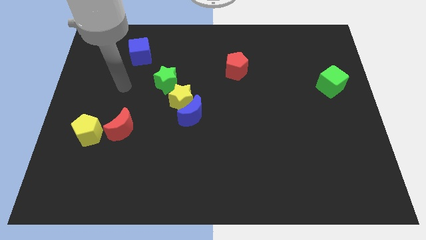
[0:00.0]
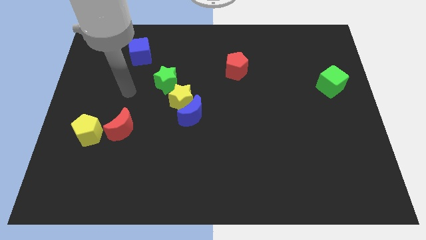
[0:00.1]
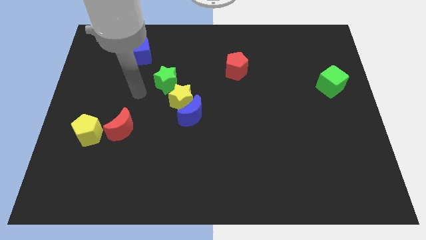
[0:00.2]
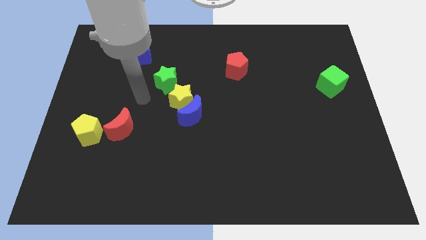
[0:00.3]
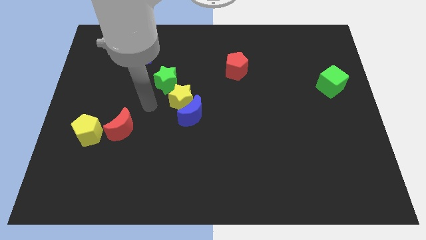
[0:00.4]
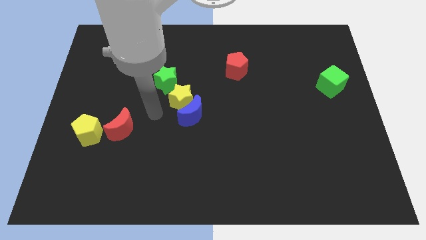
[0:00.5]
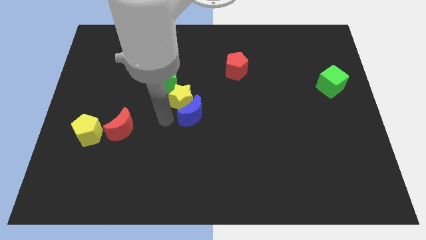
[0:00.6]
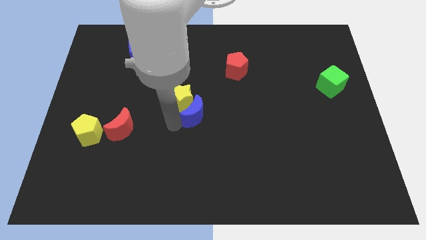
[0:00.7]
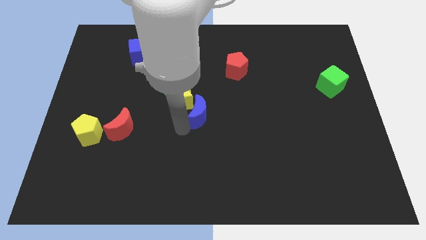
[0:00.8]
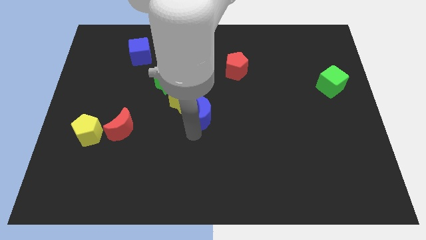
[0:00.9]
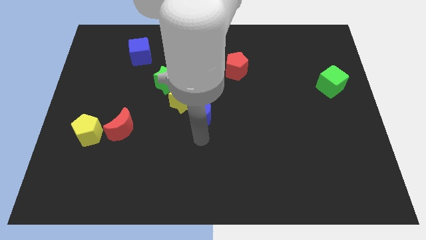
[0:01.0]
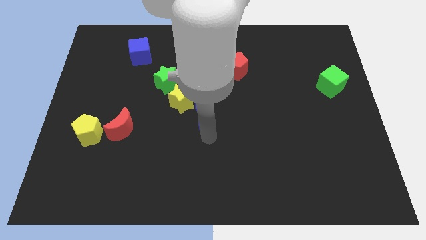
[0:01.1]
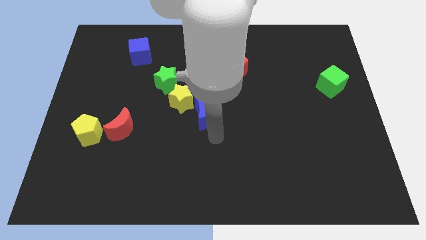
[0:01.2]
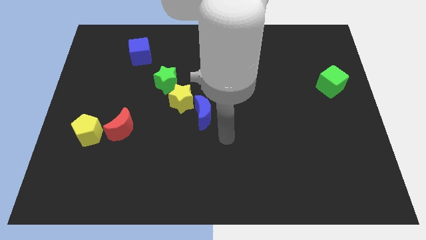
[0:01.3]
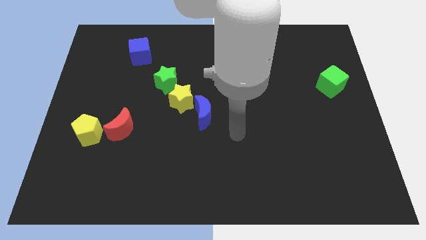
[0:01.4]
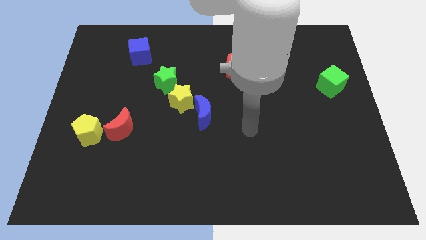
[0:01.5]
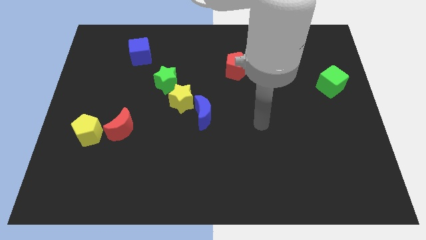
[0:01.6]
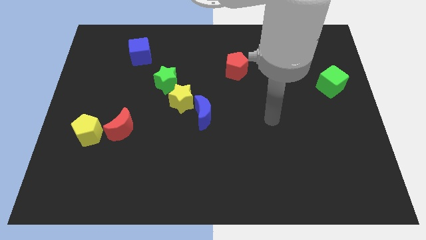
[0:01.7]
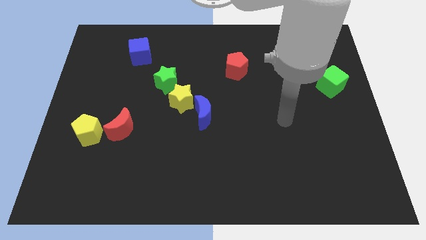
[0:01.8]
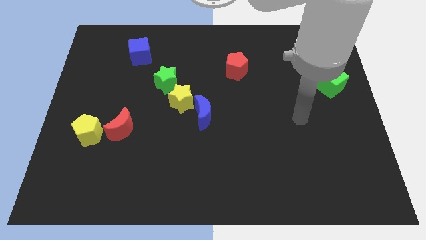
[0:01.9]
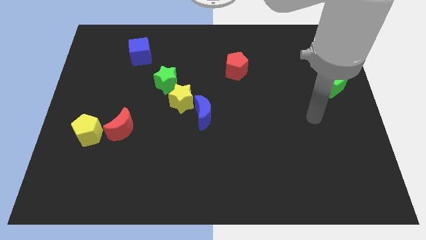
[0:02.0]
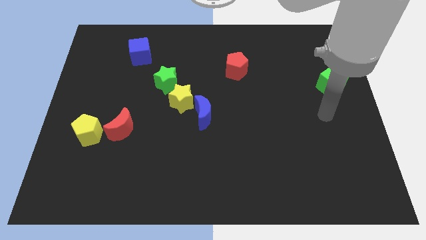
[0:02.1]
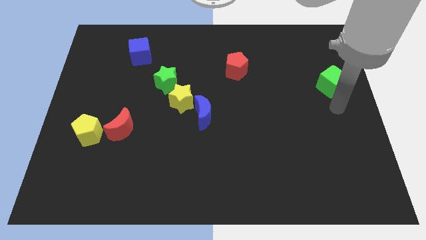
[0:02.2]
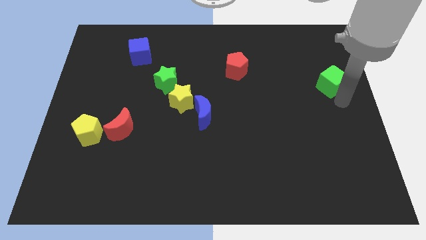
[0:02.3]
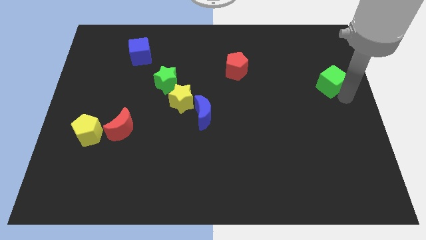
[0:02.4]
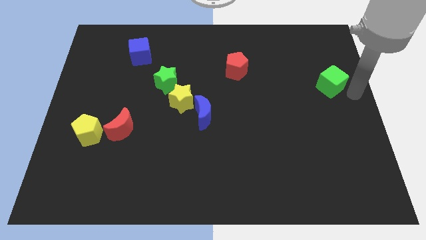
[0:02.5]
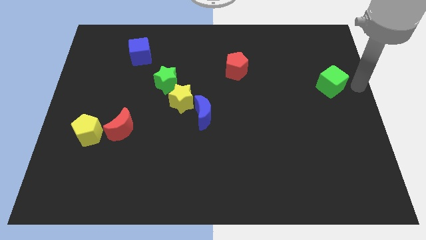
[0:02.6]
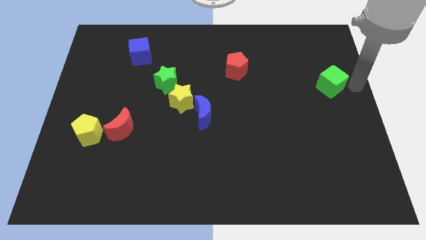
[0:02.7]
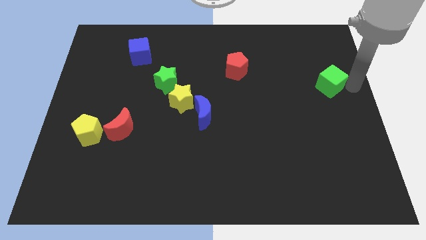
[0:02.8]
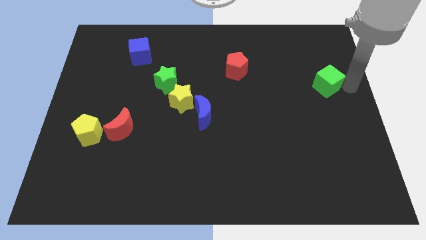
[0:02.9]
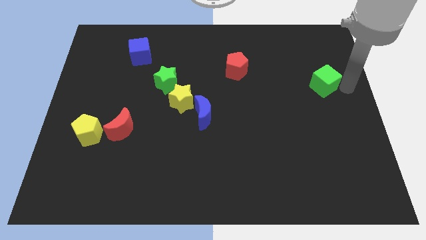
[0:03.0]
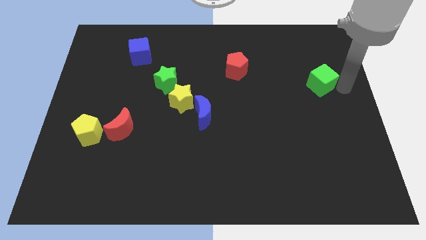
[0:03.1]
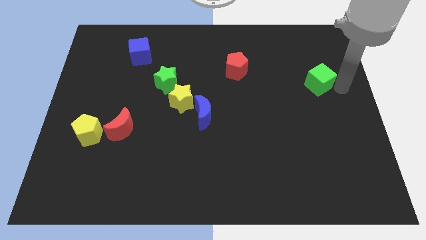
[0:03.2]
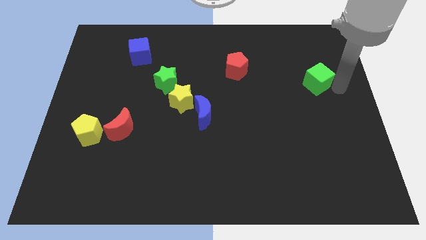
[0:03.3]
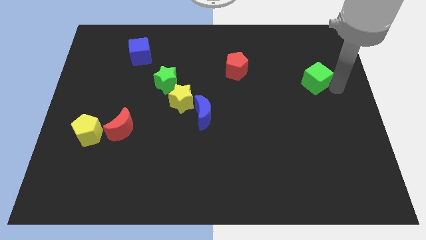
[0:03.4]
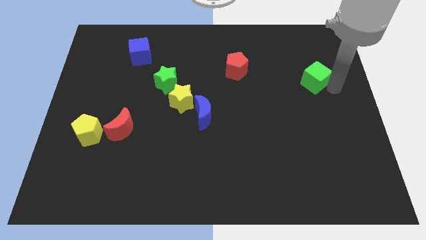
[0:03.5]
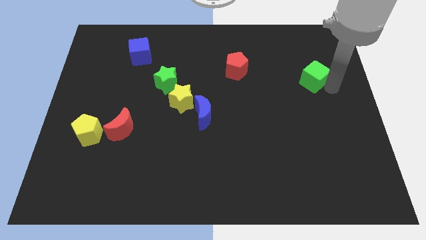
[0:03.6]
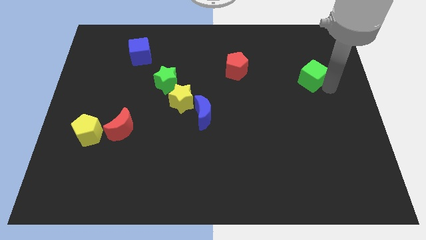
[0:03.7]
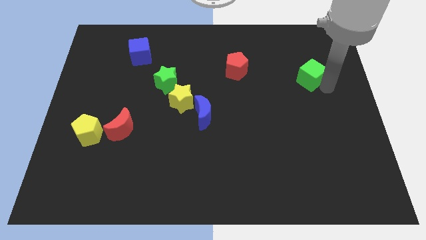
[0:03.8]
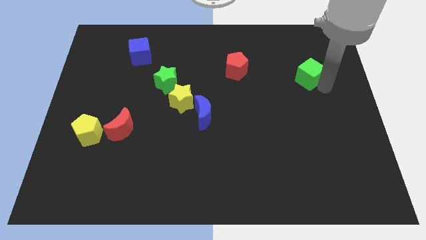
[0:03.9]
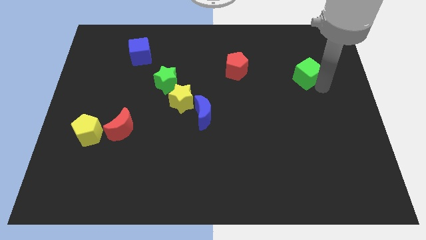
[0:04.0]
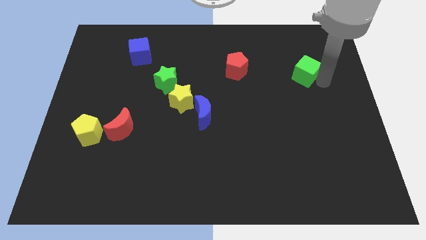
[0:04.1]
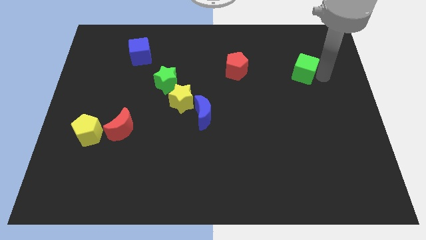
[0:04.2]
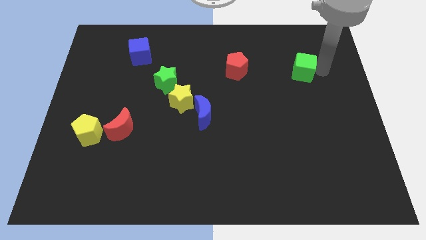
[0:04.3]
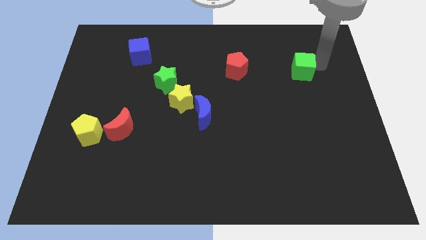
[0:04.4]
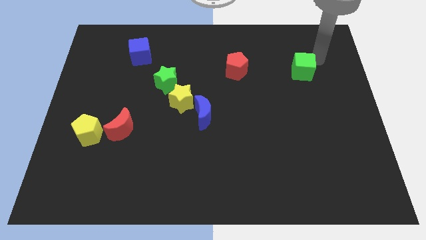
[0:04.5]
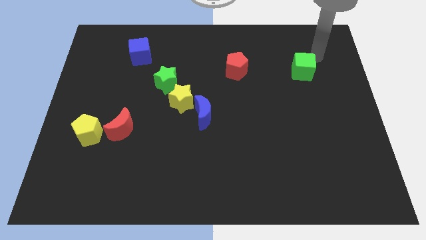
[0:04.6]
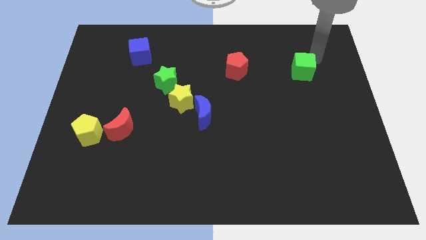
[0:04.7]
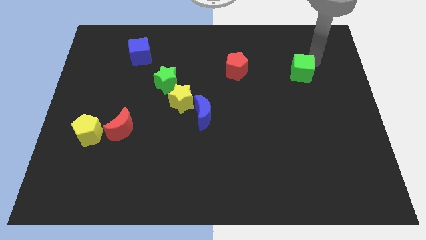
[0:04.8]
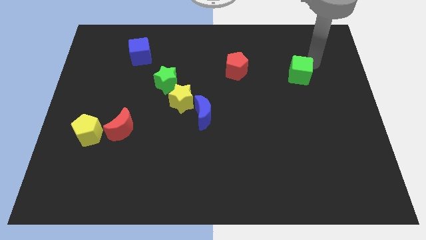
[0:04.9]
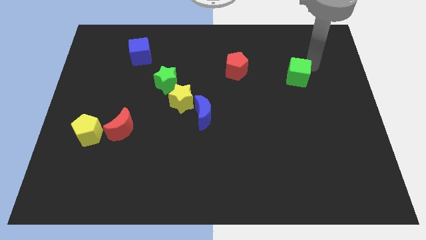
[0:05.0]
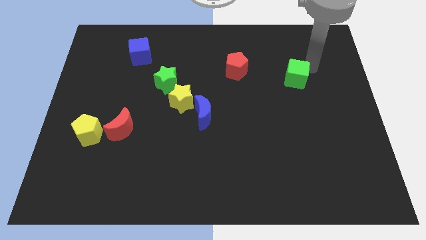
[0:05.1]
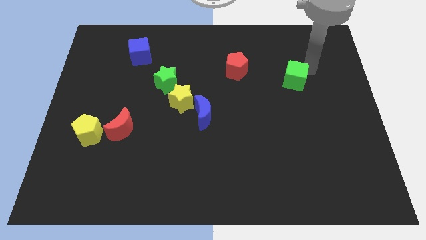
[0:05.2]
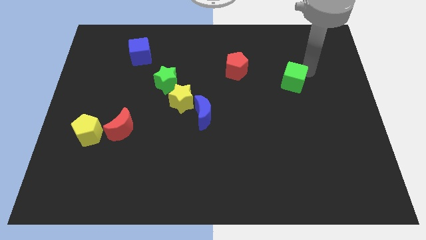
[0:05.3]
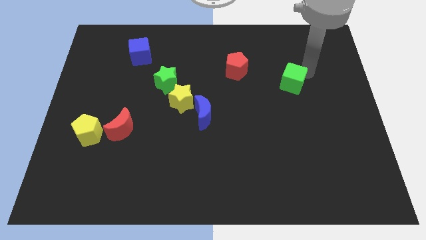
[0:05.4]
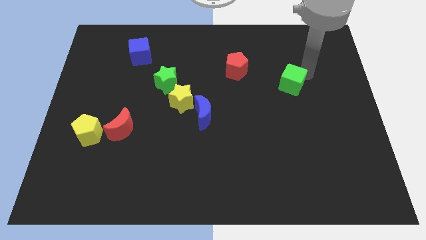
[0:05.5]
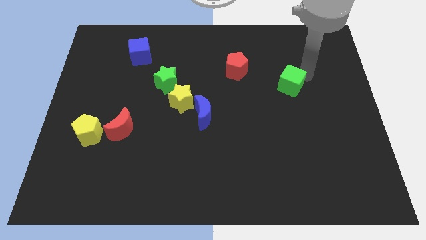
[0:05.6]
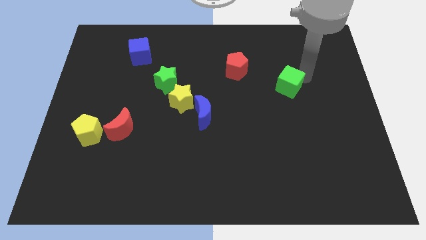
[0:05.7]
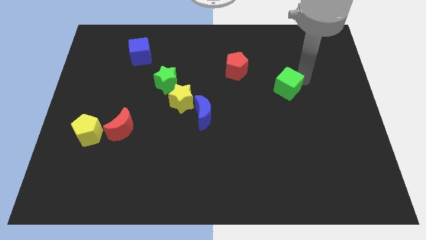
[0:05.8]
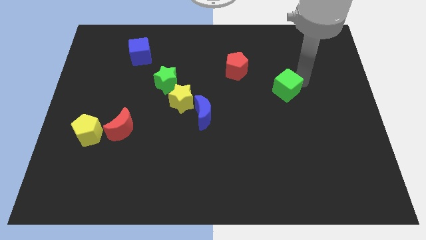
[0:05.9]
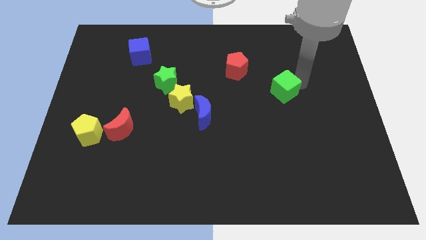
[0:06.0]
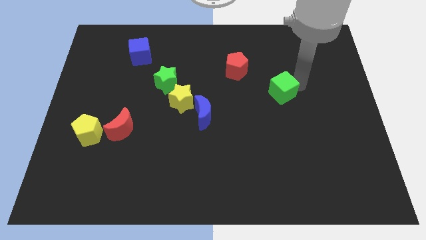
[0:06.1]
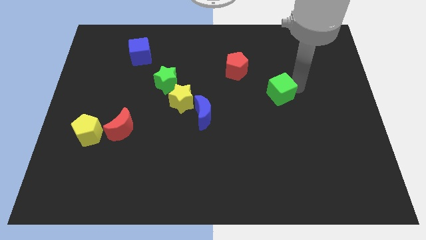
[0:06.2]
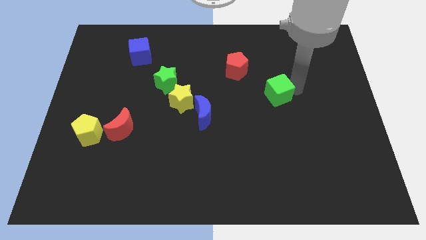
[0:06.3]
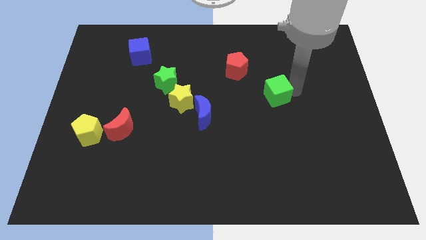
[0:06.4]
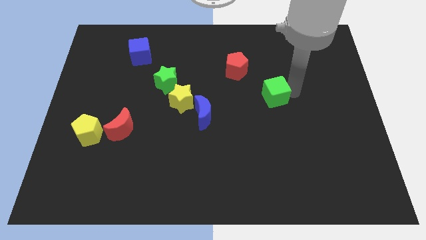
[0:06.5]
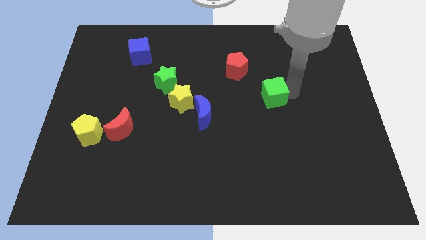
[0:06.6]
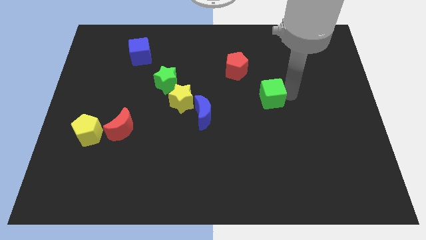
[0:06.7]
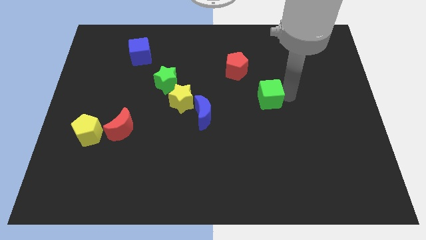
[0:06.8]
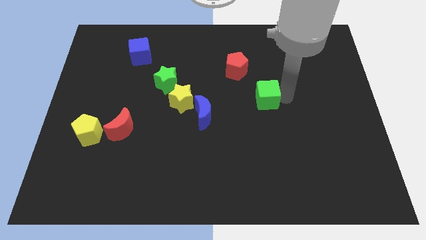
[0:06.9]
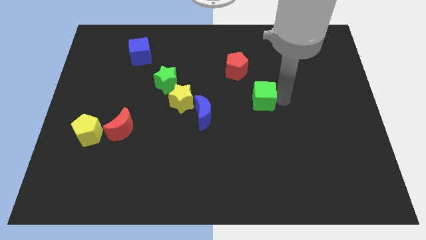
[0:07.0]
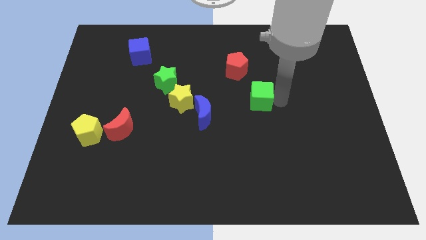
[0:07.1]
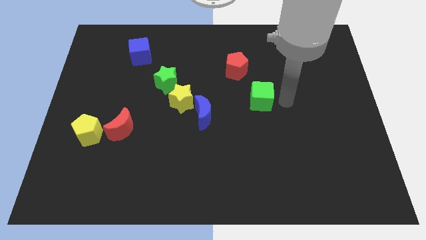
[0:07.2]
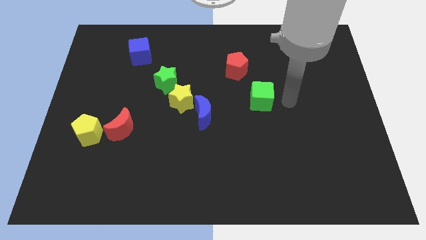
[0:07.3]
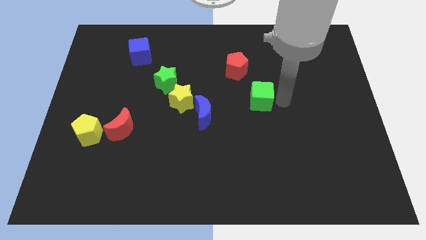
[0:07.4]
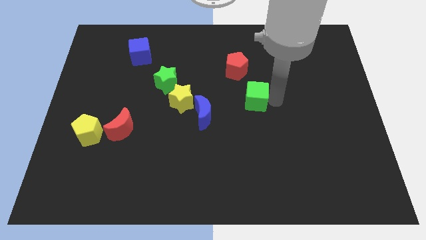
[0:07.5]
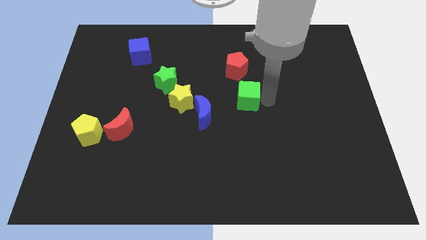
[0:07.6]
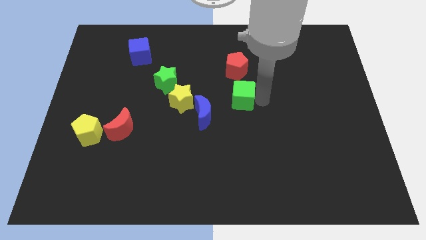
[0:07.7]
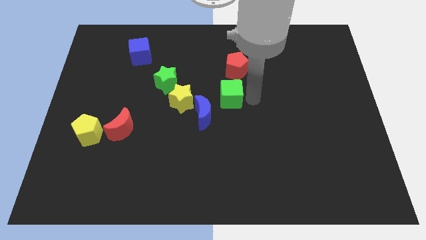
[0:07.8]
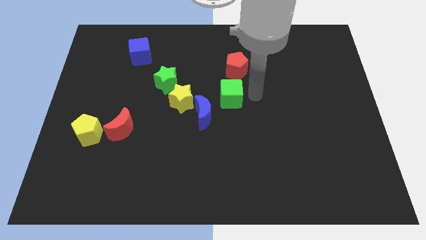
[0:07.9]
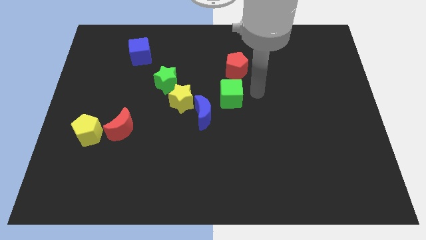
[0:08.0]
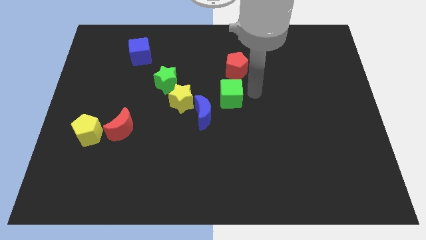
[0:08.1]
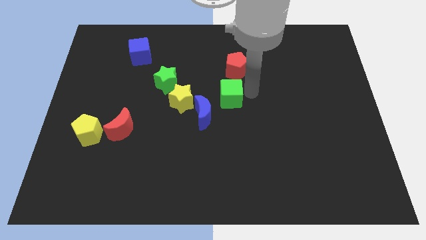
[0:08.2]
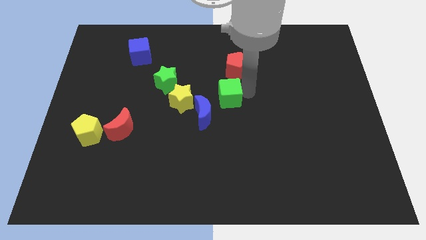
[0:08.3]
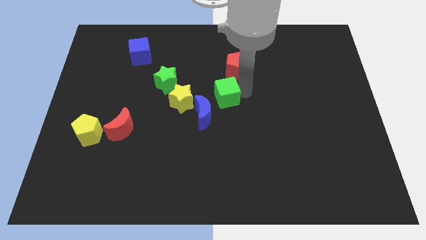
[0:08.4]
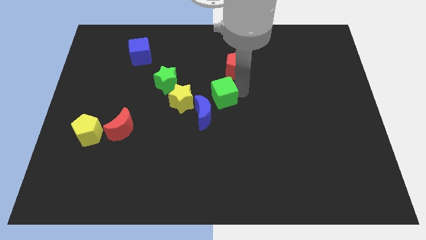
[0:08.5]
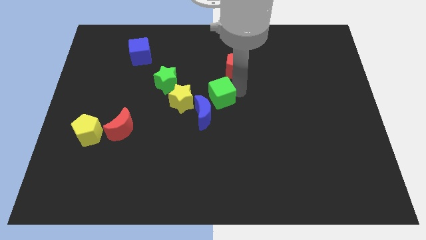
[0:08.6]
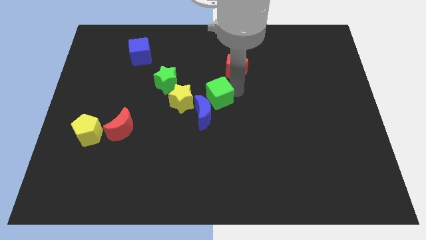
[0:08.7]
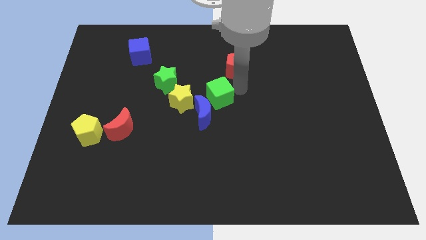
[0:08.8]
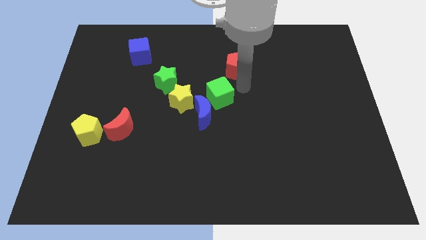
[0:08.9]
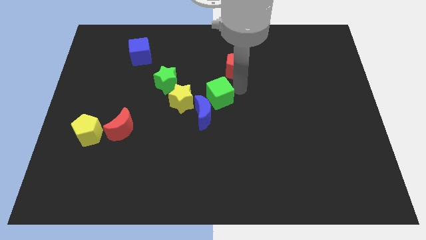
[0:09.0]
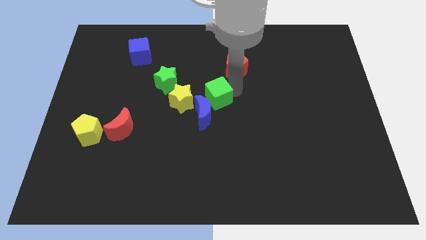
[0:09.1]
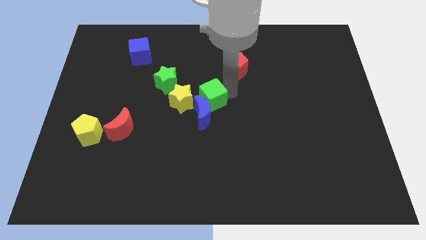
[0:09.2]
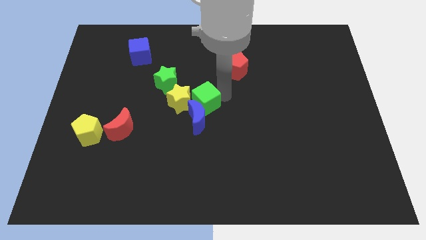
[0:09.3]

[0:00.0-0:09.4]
move the green cube to the yellow star
